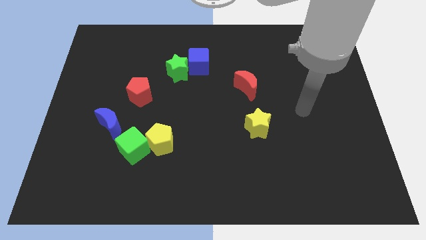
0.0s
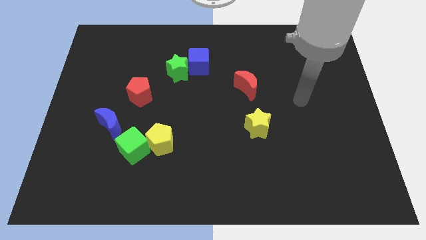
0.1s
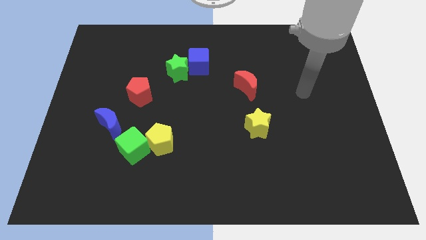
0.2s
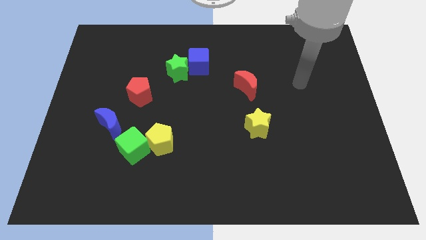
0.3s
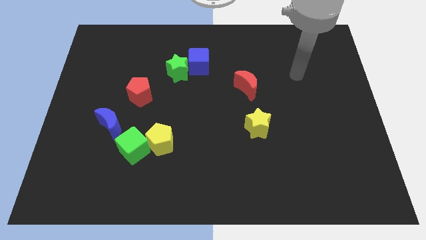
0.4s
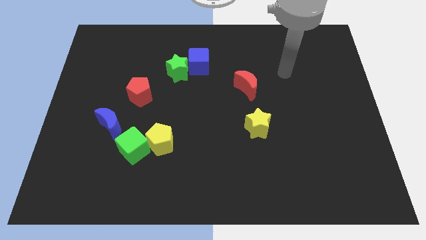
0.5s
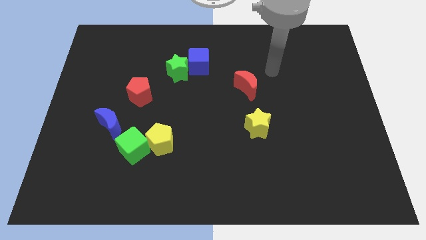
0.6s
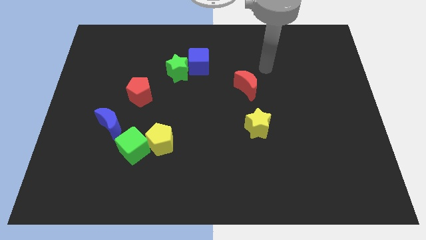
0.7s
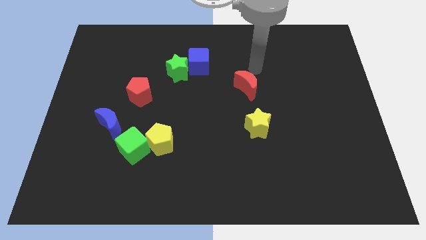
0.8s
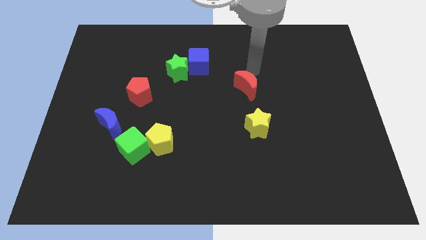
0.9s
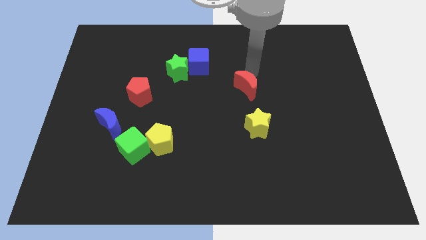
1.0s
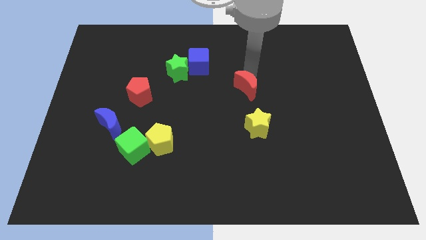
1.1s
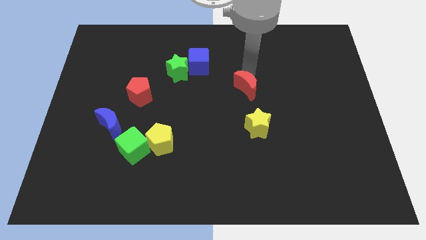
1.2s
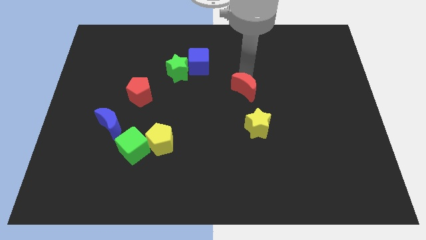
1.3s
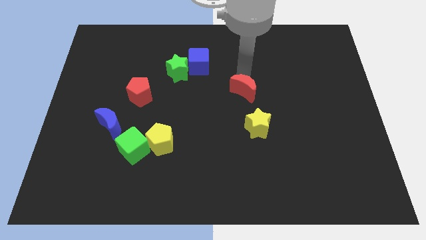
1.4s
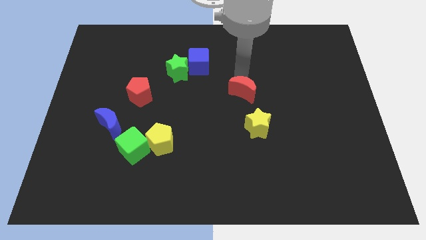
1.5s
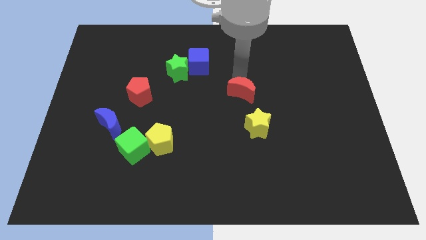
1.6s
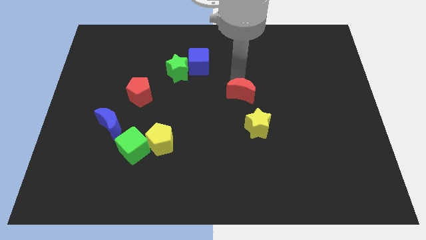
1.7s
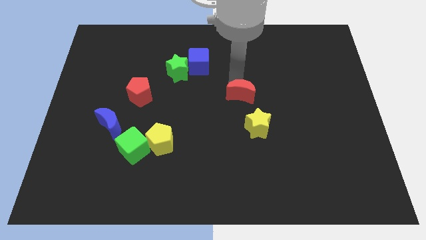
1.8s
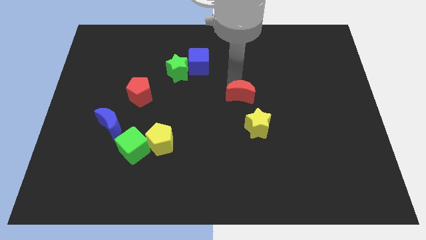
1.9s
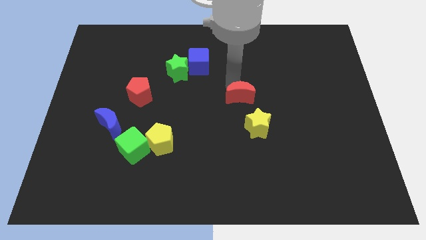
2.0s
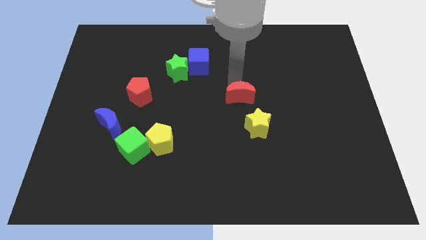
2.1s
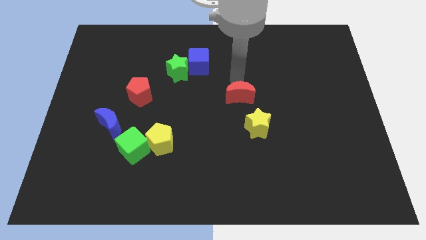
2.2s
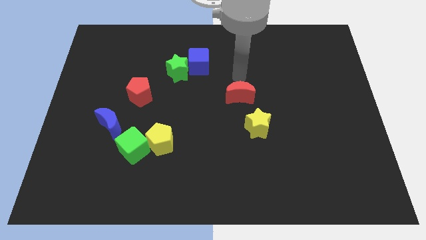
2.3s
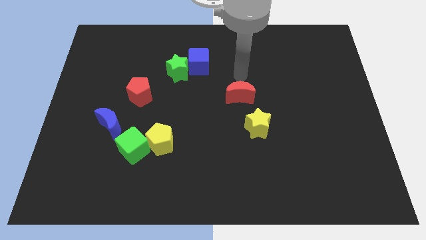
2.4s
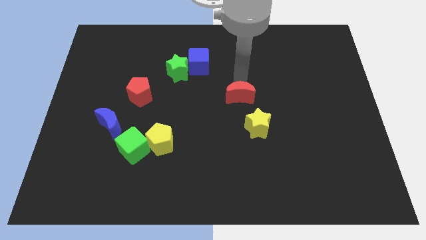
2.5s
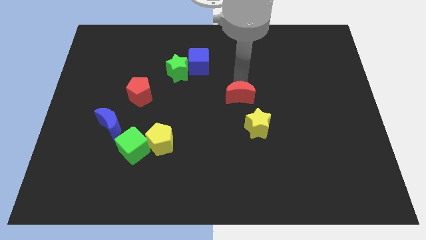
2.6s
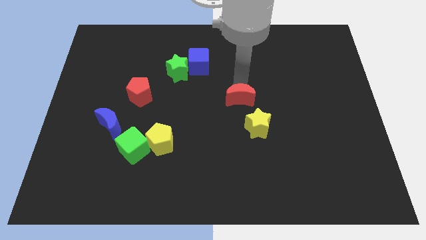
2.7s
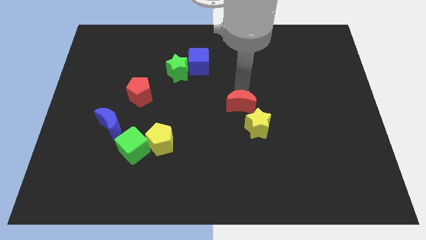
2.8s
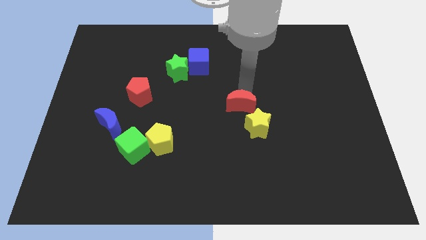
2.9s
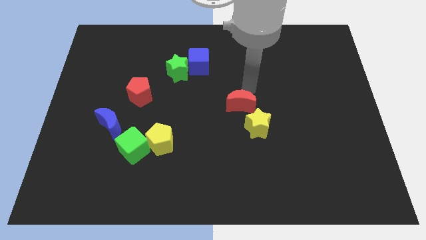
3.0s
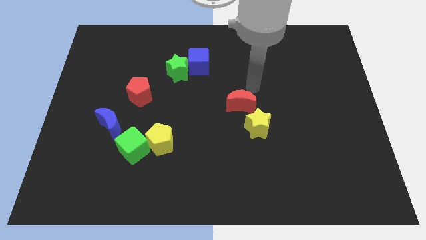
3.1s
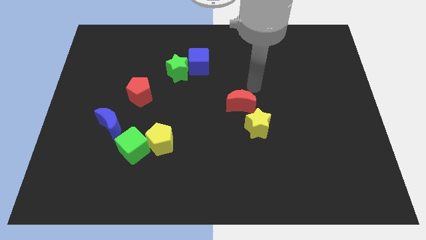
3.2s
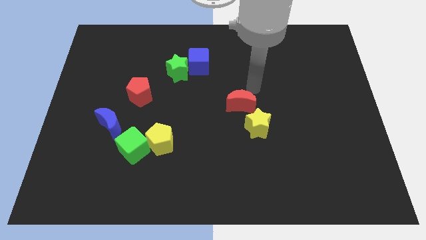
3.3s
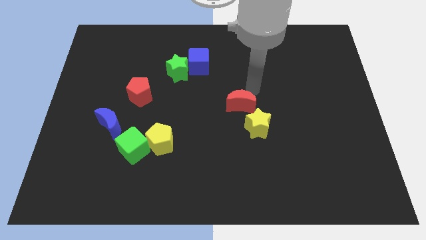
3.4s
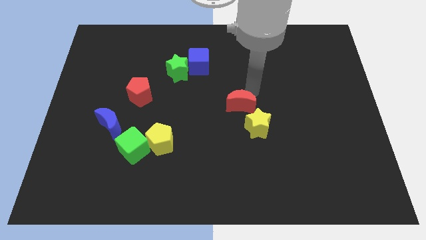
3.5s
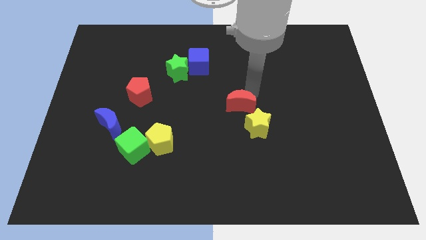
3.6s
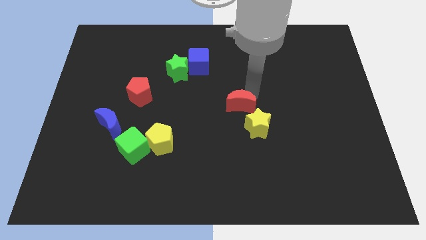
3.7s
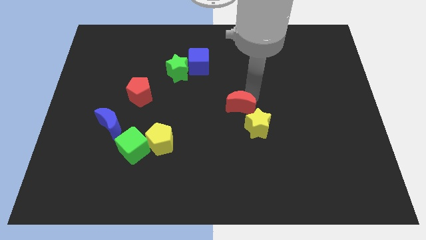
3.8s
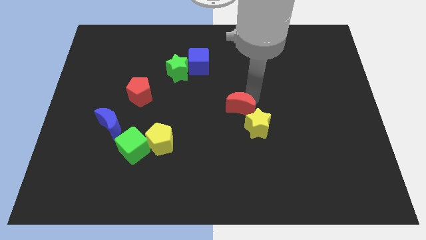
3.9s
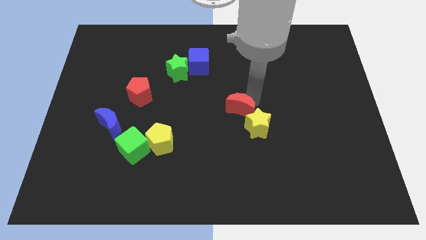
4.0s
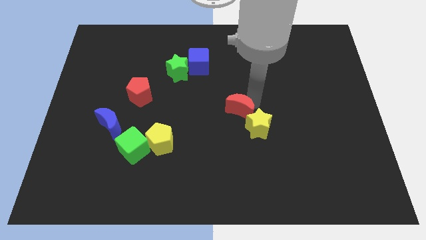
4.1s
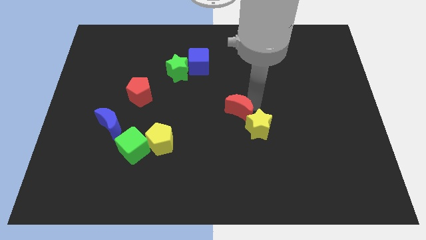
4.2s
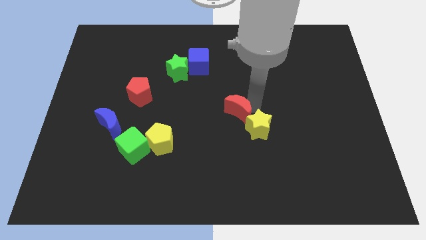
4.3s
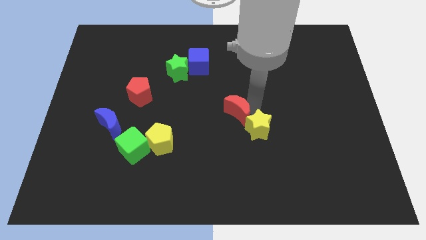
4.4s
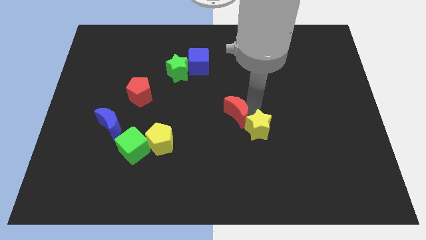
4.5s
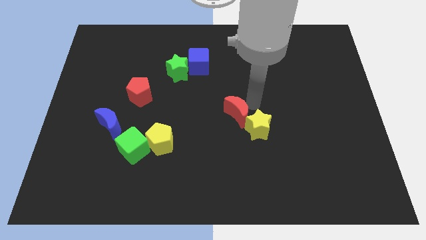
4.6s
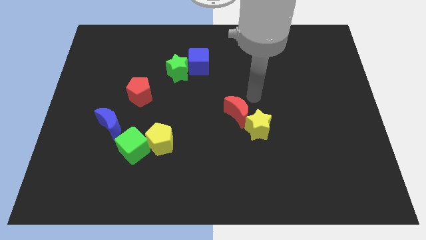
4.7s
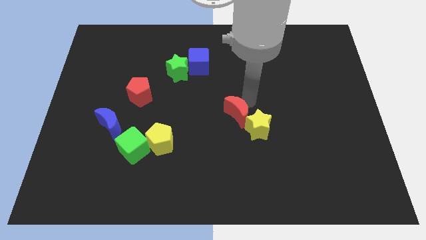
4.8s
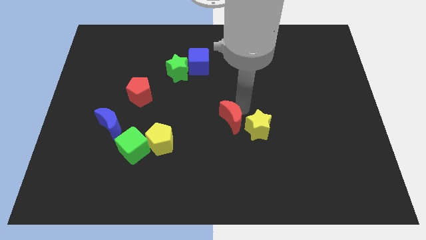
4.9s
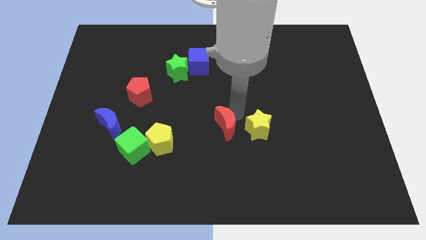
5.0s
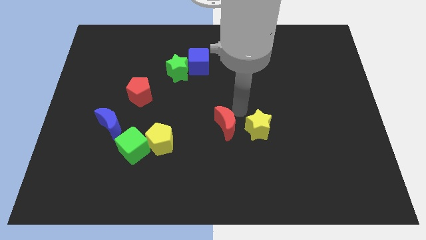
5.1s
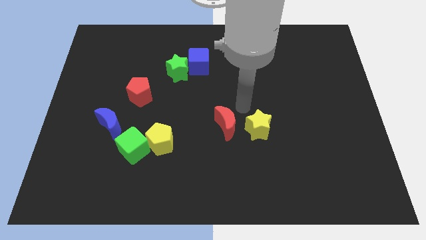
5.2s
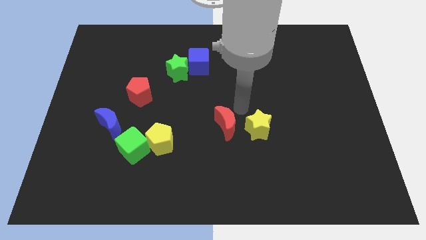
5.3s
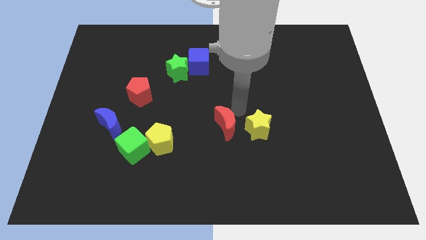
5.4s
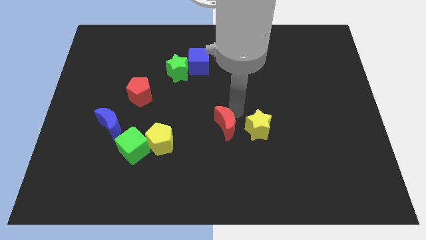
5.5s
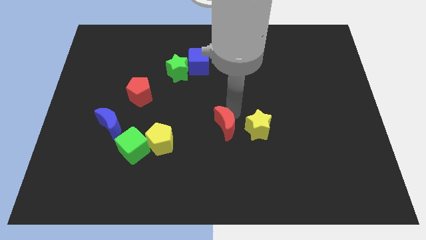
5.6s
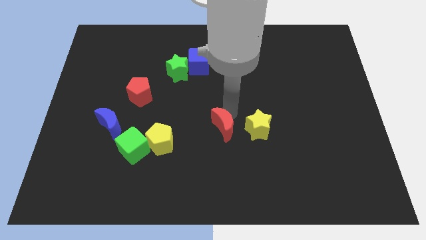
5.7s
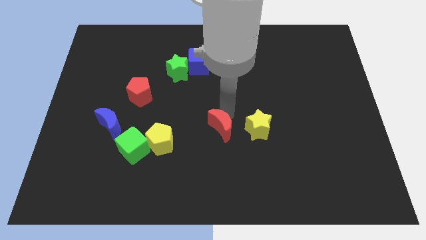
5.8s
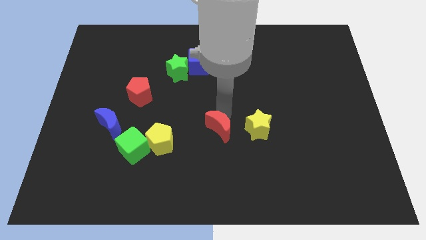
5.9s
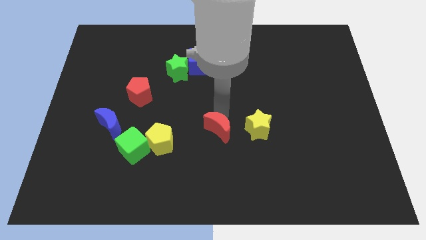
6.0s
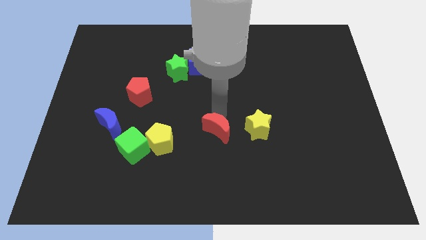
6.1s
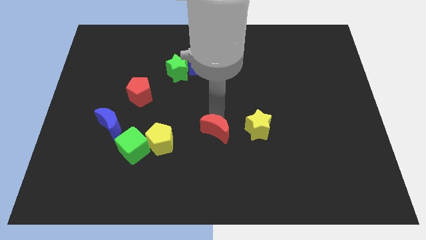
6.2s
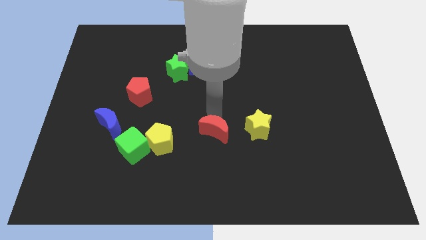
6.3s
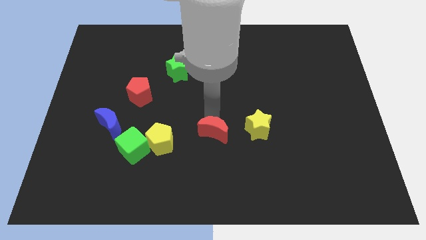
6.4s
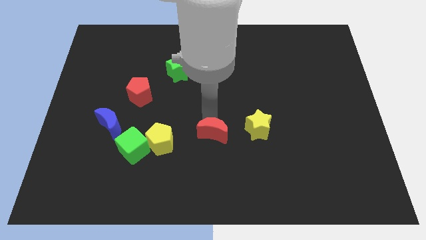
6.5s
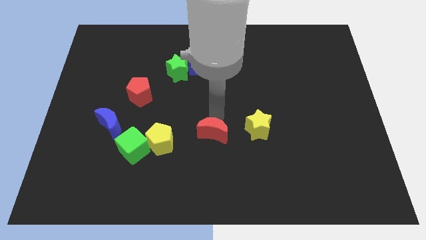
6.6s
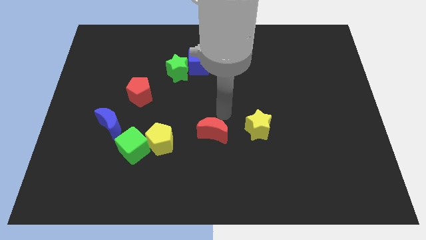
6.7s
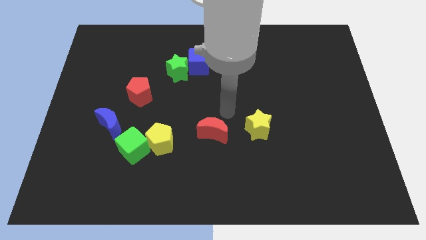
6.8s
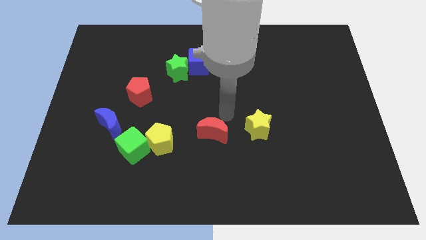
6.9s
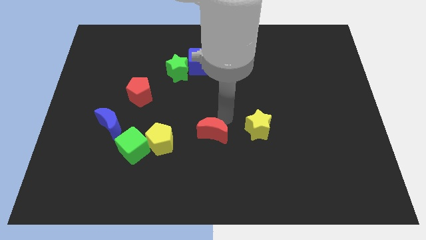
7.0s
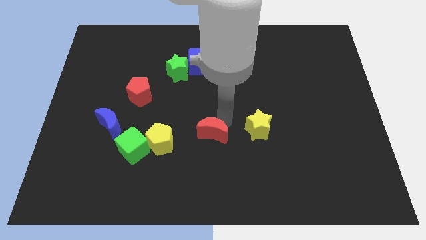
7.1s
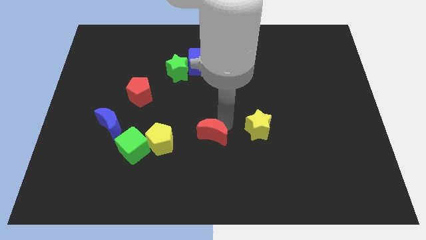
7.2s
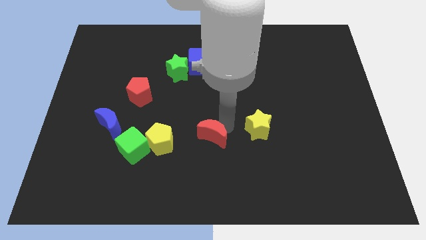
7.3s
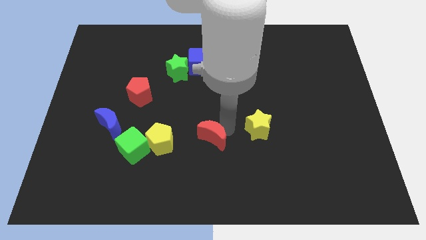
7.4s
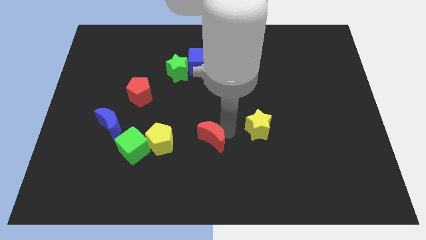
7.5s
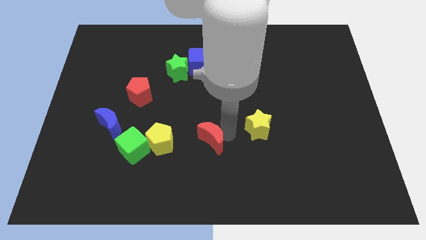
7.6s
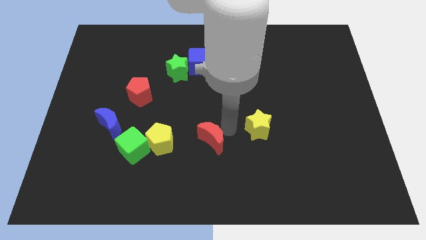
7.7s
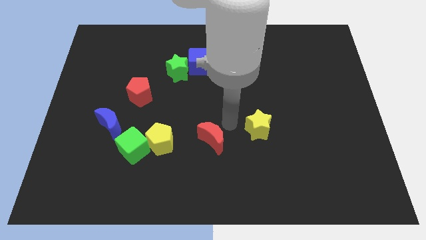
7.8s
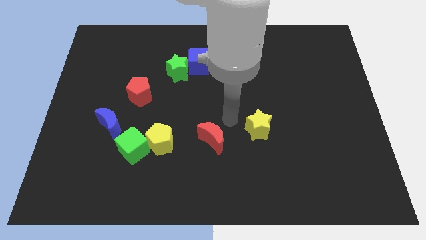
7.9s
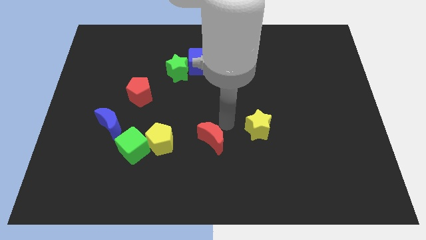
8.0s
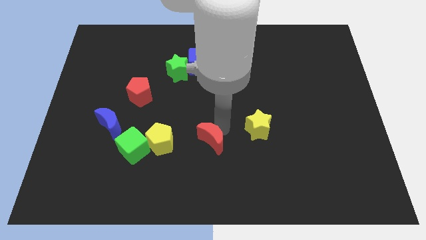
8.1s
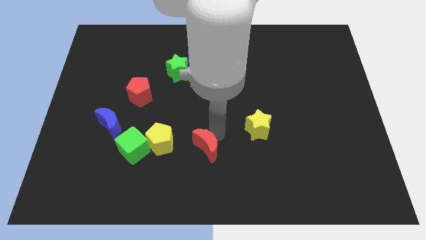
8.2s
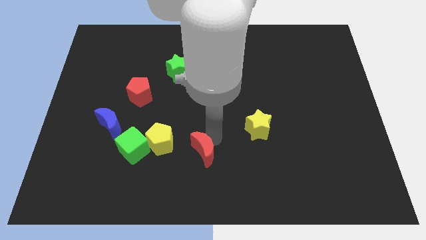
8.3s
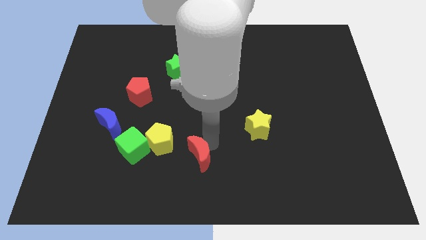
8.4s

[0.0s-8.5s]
move the red moon downwards and to the left
